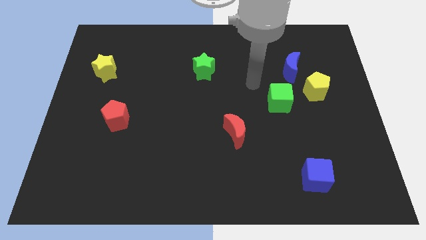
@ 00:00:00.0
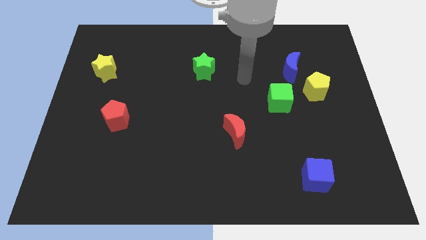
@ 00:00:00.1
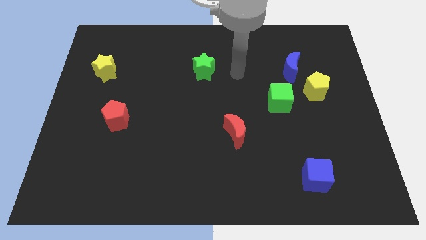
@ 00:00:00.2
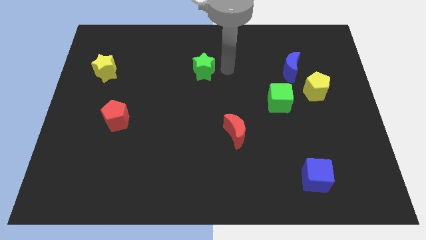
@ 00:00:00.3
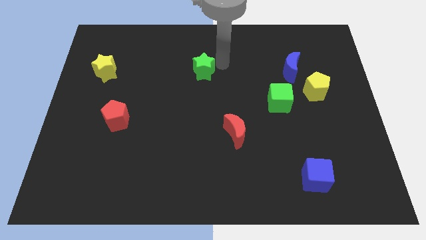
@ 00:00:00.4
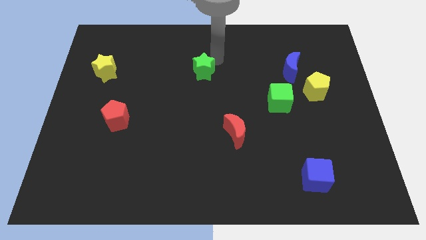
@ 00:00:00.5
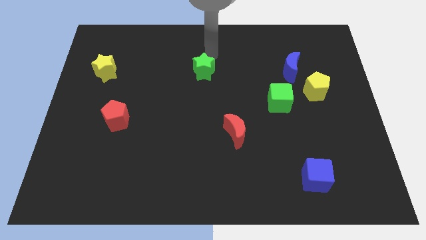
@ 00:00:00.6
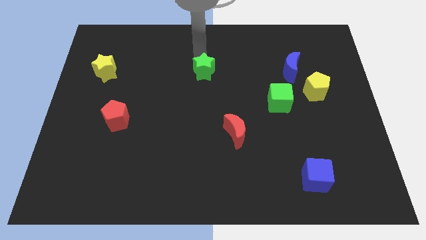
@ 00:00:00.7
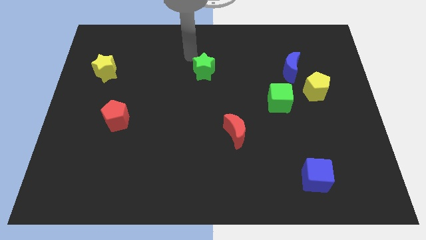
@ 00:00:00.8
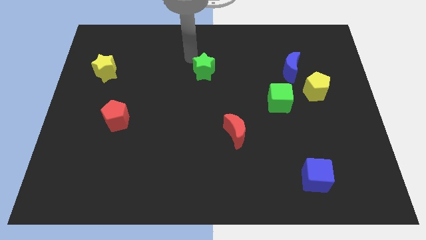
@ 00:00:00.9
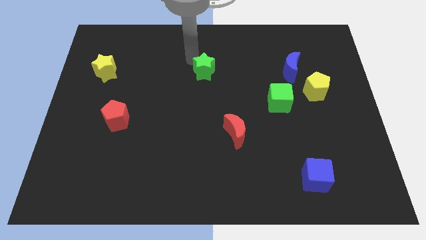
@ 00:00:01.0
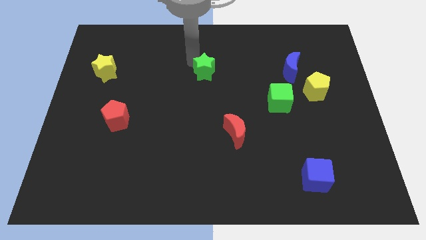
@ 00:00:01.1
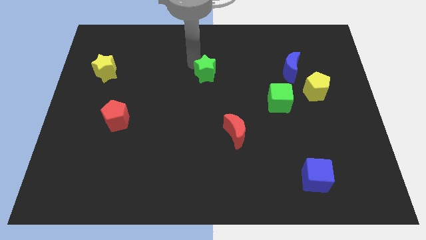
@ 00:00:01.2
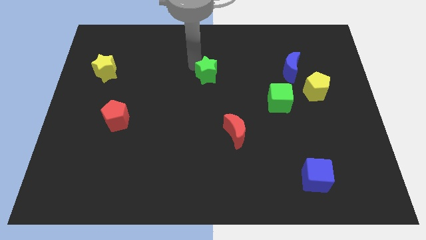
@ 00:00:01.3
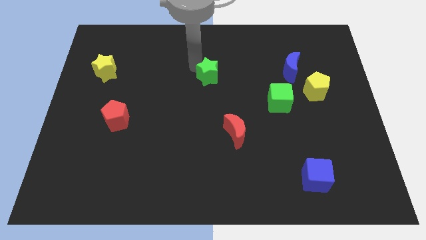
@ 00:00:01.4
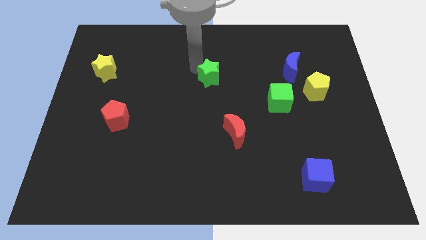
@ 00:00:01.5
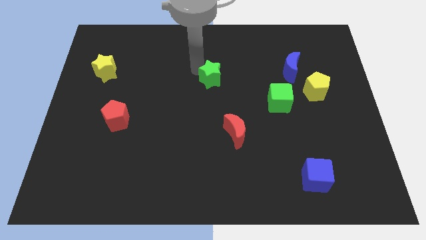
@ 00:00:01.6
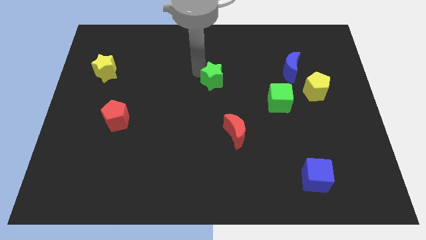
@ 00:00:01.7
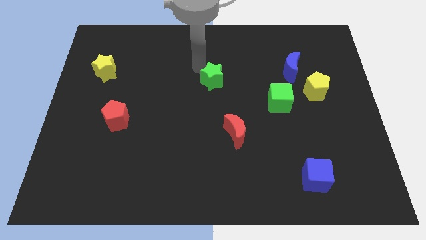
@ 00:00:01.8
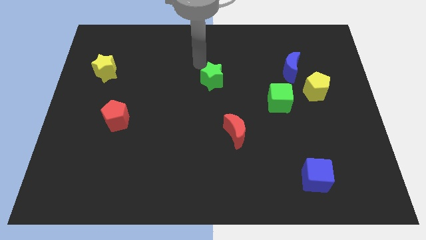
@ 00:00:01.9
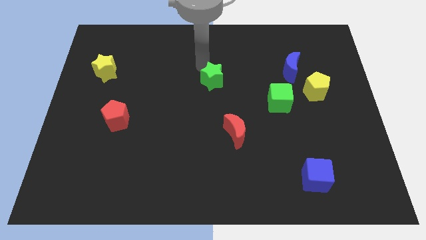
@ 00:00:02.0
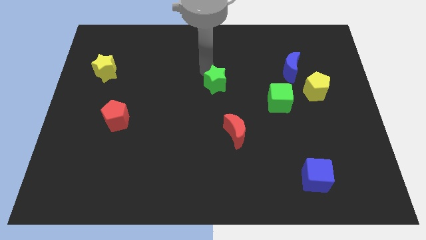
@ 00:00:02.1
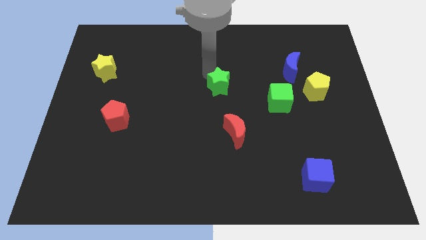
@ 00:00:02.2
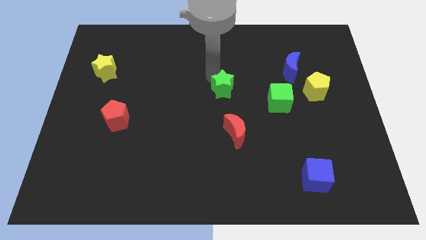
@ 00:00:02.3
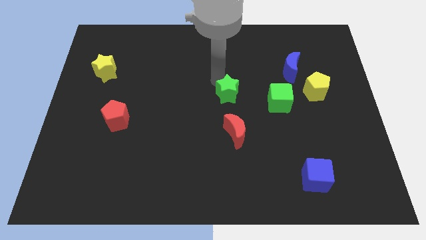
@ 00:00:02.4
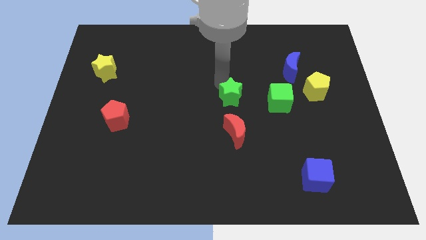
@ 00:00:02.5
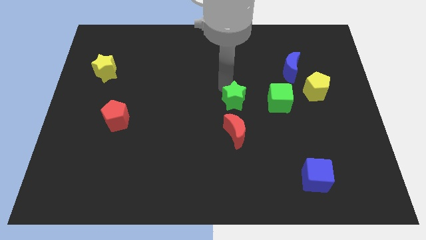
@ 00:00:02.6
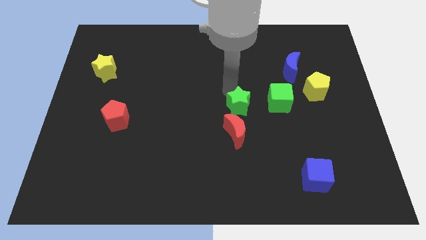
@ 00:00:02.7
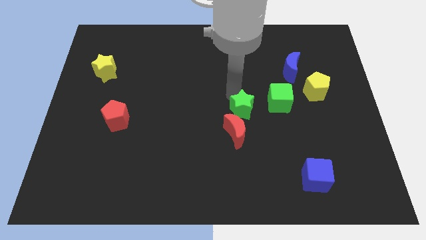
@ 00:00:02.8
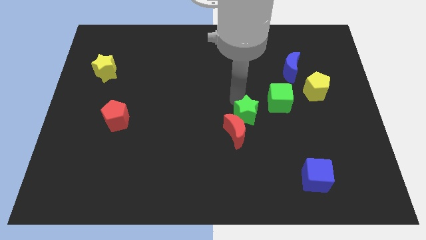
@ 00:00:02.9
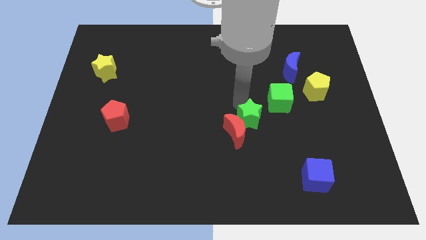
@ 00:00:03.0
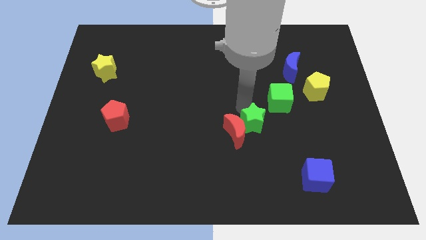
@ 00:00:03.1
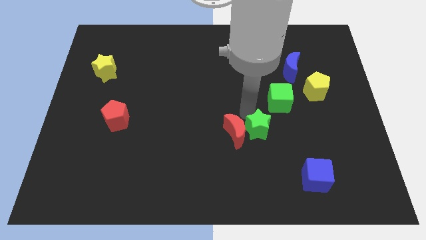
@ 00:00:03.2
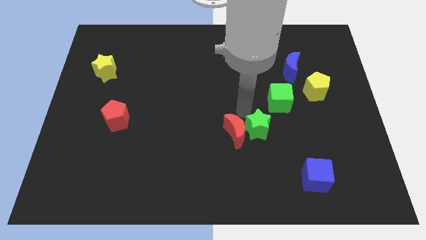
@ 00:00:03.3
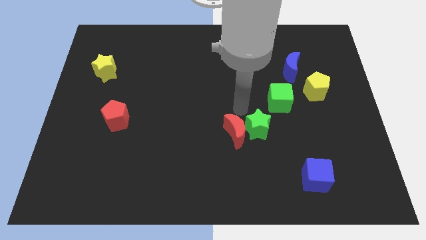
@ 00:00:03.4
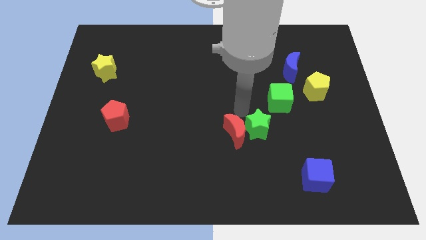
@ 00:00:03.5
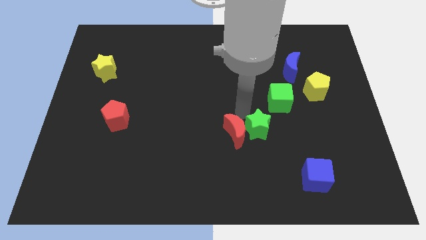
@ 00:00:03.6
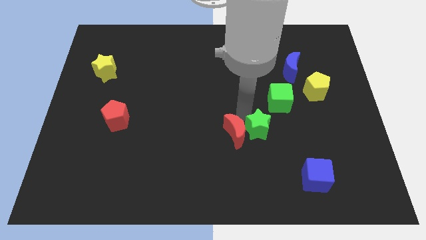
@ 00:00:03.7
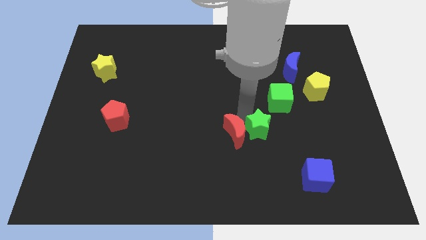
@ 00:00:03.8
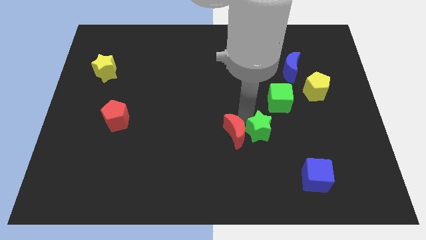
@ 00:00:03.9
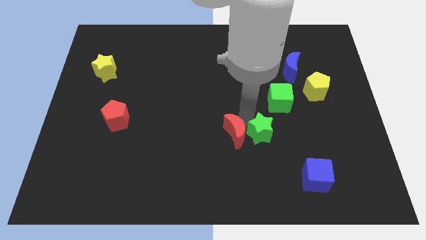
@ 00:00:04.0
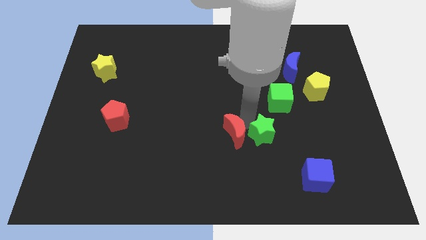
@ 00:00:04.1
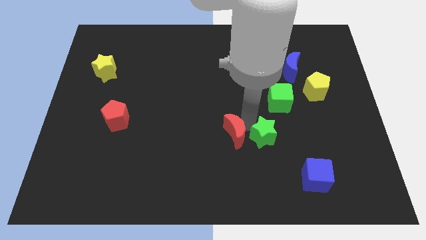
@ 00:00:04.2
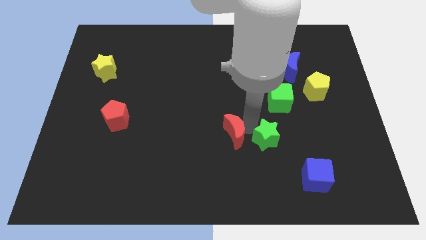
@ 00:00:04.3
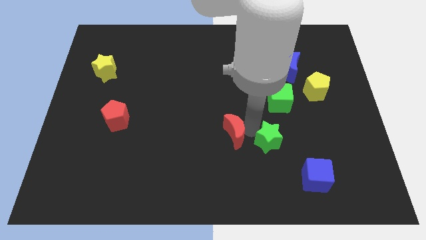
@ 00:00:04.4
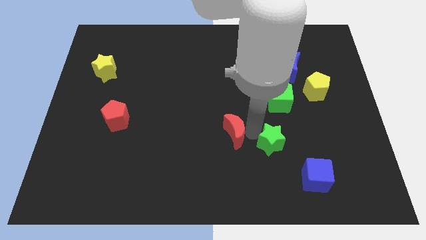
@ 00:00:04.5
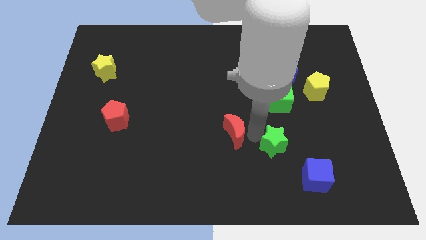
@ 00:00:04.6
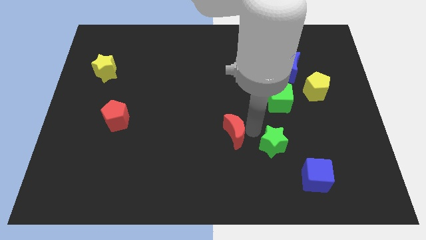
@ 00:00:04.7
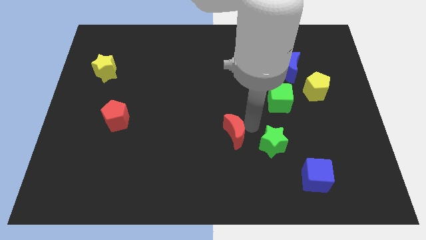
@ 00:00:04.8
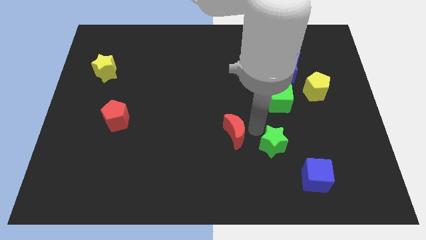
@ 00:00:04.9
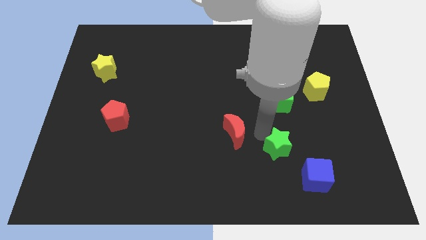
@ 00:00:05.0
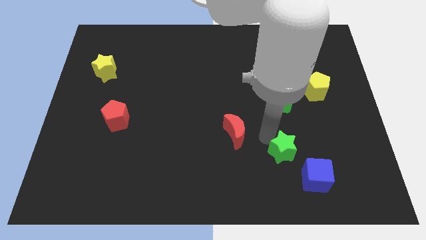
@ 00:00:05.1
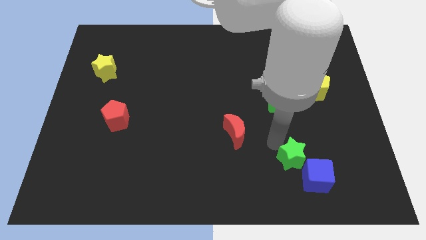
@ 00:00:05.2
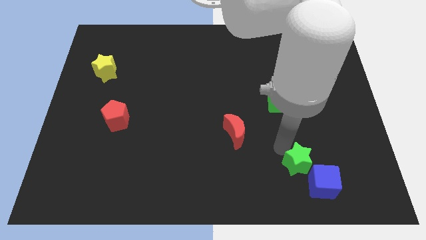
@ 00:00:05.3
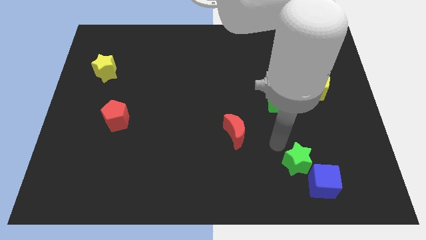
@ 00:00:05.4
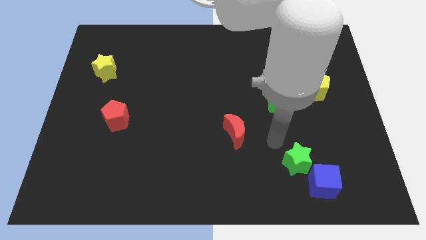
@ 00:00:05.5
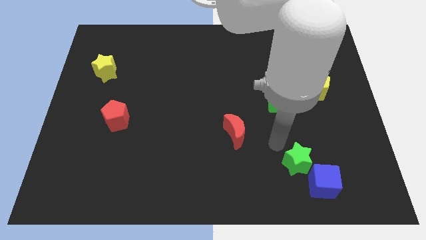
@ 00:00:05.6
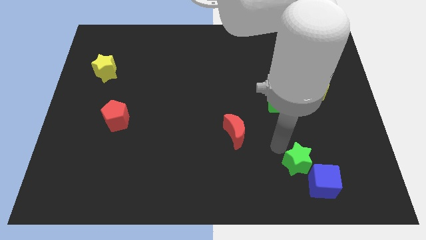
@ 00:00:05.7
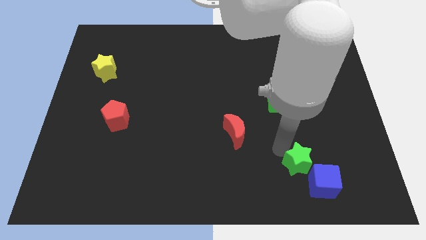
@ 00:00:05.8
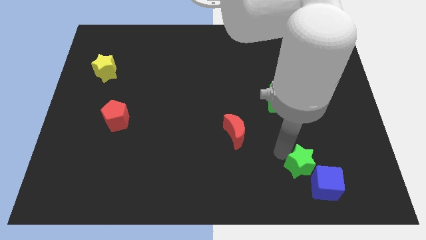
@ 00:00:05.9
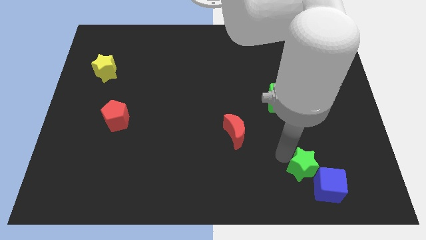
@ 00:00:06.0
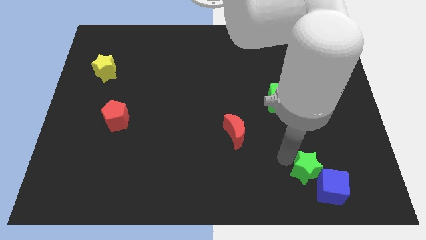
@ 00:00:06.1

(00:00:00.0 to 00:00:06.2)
push the green star next to the blue cube
